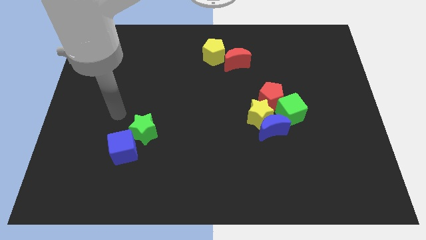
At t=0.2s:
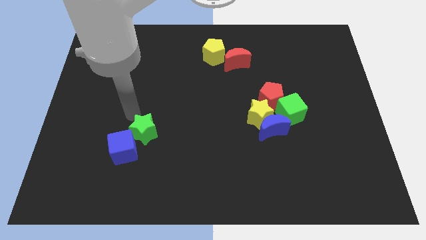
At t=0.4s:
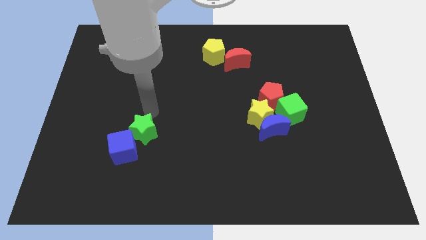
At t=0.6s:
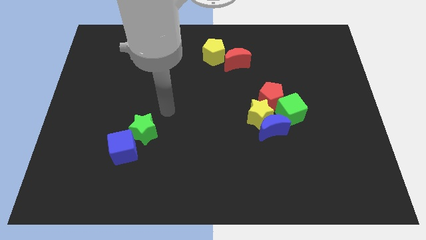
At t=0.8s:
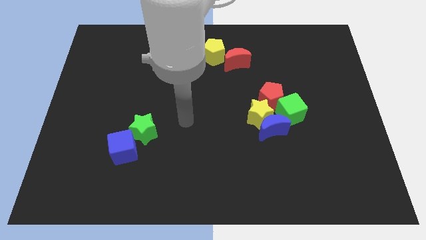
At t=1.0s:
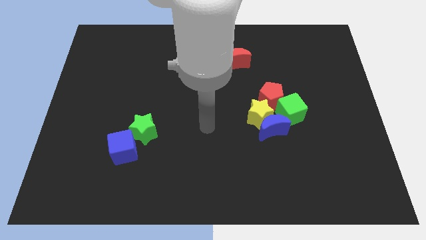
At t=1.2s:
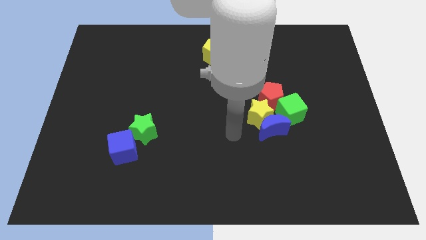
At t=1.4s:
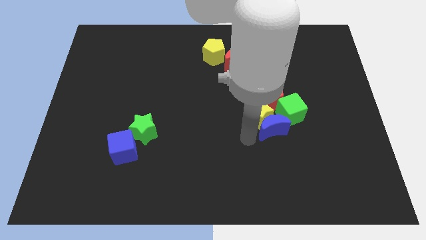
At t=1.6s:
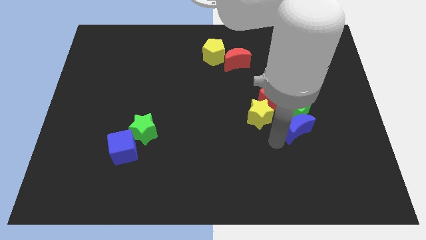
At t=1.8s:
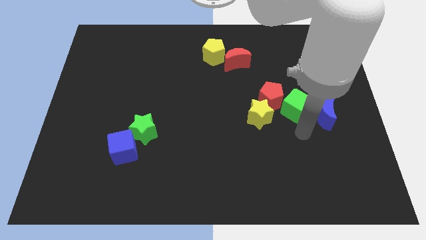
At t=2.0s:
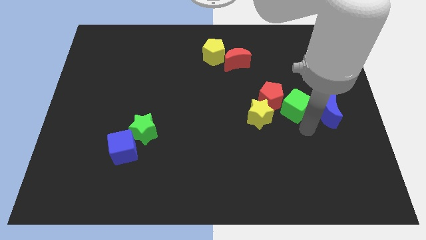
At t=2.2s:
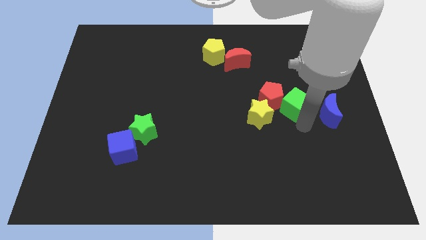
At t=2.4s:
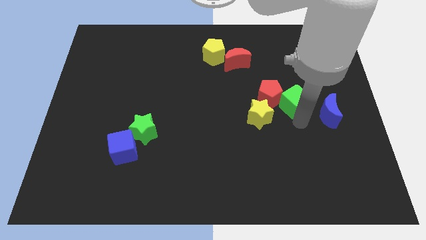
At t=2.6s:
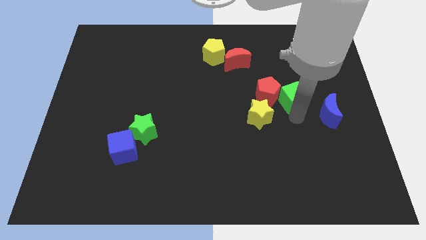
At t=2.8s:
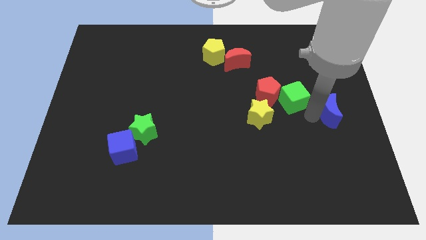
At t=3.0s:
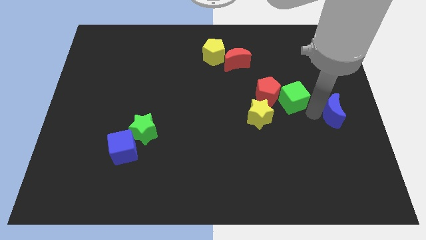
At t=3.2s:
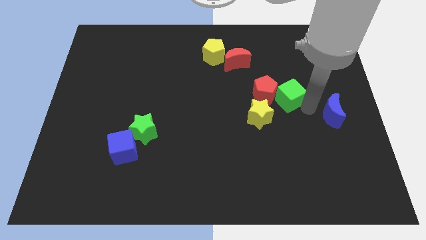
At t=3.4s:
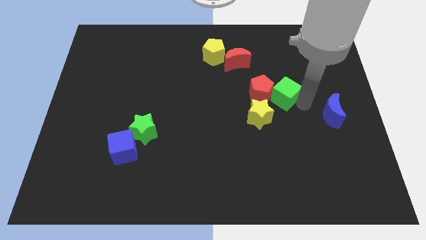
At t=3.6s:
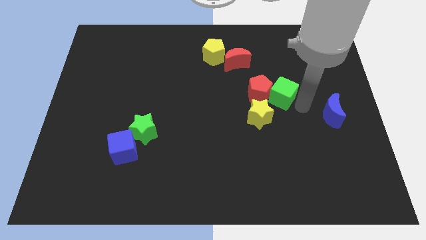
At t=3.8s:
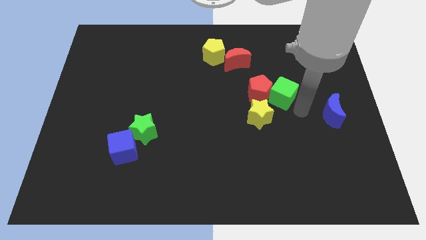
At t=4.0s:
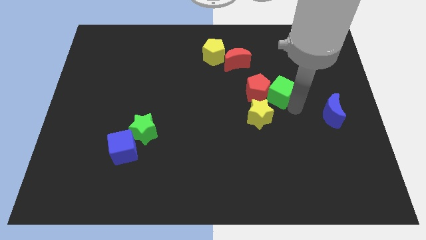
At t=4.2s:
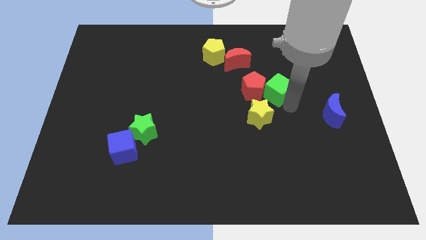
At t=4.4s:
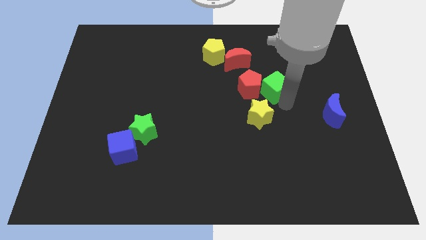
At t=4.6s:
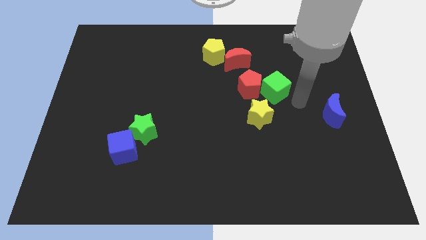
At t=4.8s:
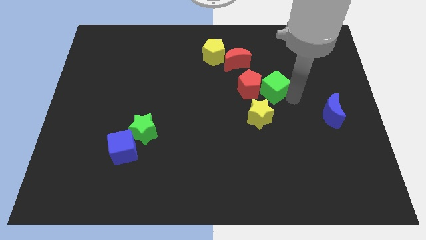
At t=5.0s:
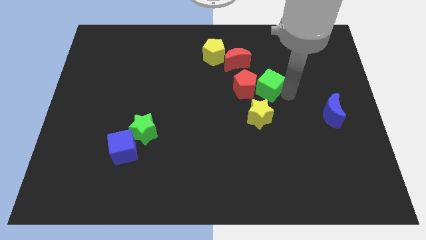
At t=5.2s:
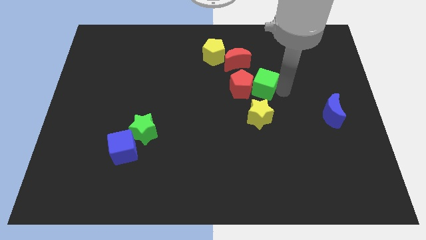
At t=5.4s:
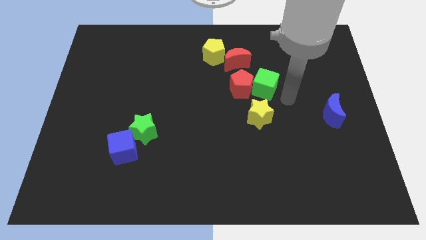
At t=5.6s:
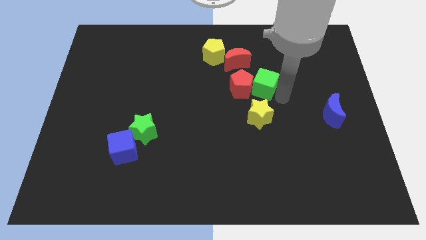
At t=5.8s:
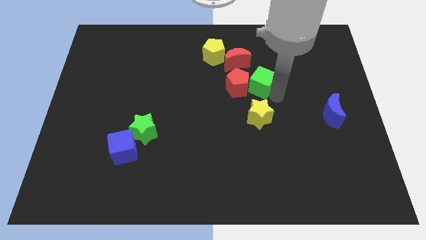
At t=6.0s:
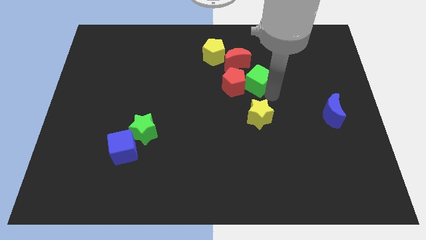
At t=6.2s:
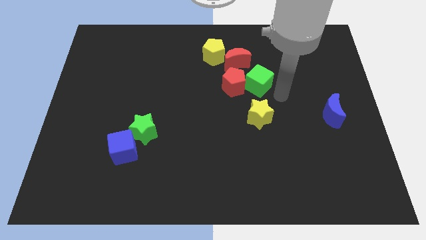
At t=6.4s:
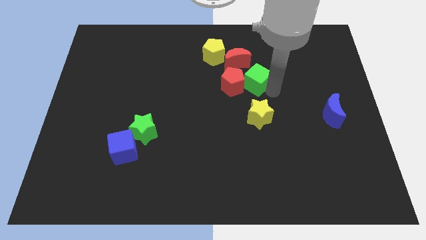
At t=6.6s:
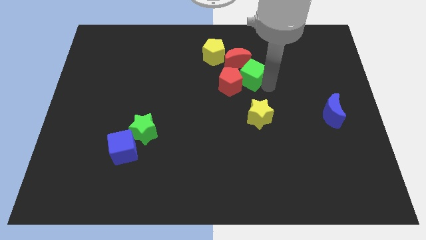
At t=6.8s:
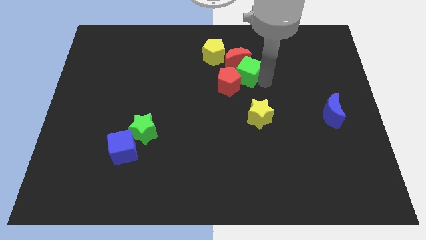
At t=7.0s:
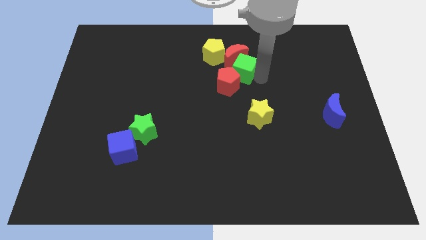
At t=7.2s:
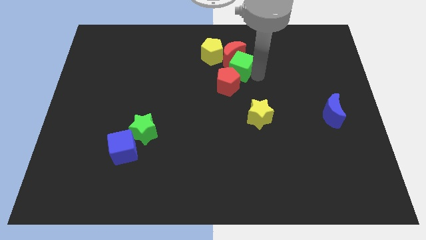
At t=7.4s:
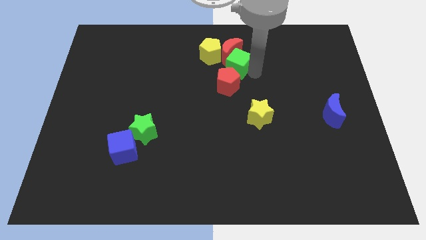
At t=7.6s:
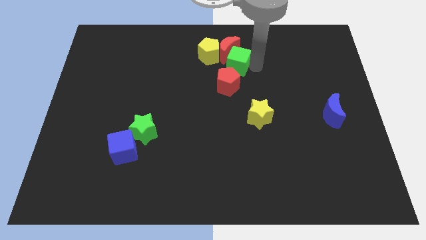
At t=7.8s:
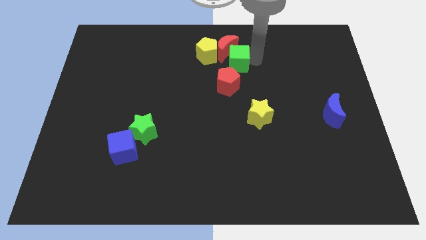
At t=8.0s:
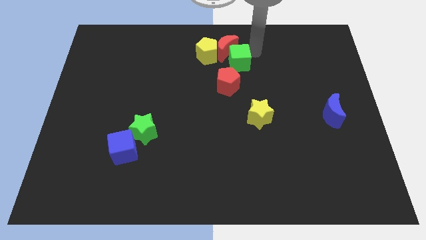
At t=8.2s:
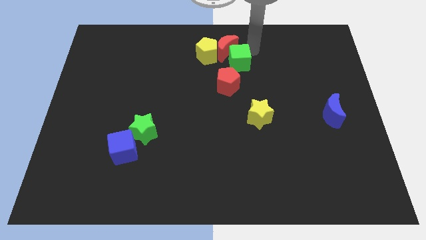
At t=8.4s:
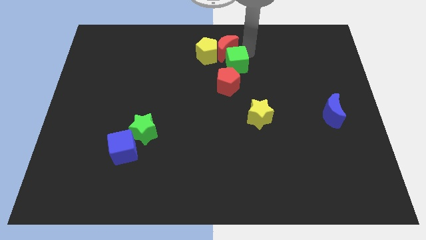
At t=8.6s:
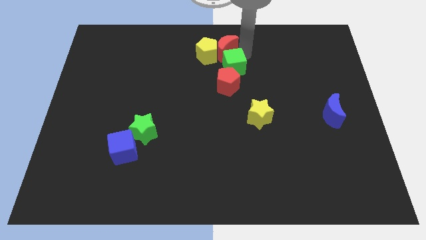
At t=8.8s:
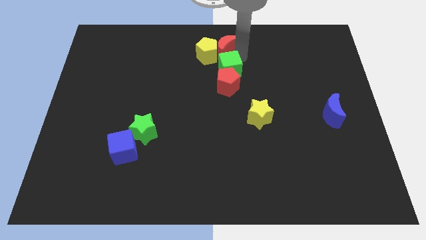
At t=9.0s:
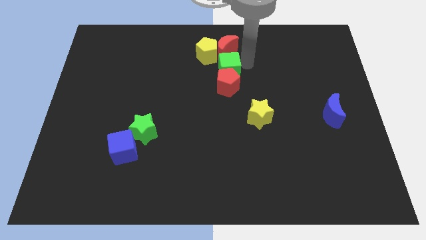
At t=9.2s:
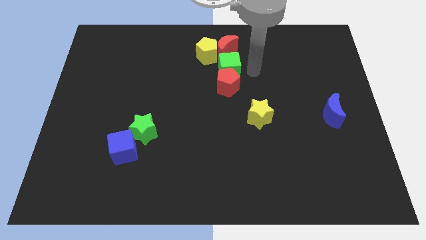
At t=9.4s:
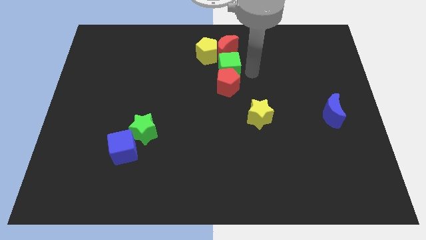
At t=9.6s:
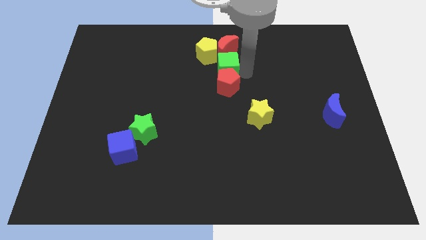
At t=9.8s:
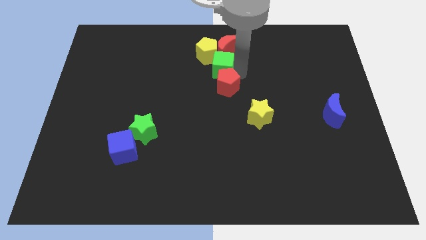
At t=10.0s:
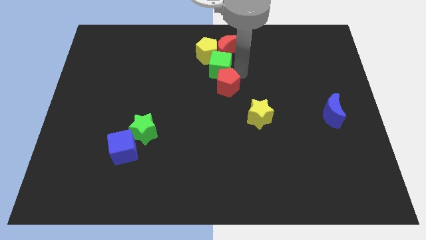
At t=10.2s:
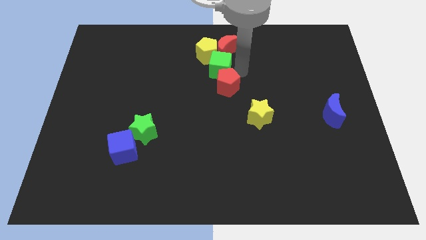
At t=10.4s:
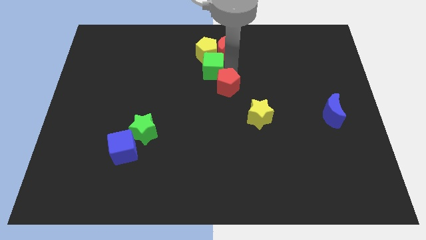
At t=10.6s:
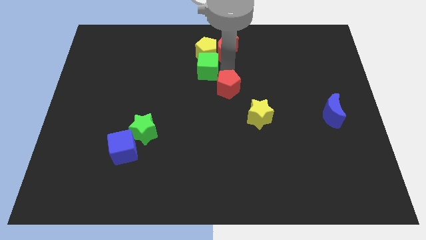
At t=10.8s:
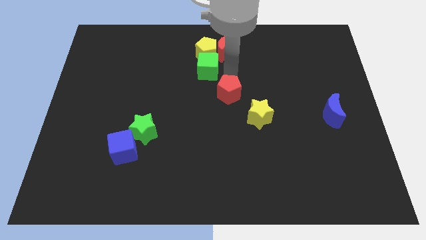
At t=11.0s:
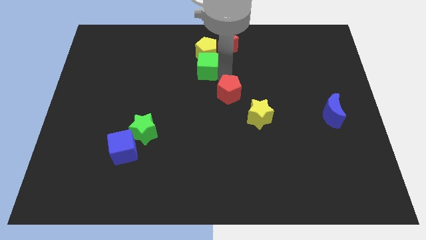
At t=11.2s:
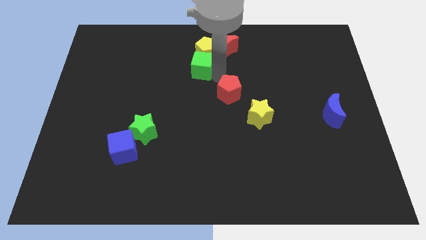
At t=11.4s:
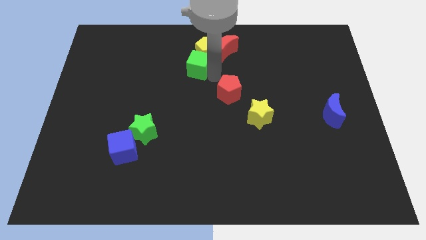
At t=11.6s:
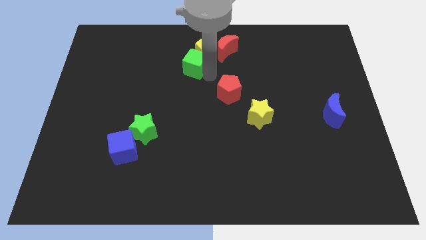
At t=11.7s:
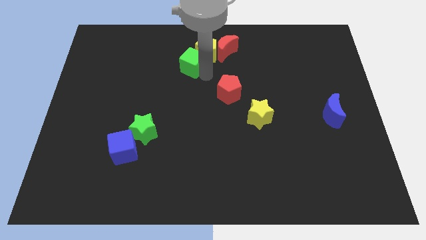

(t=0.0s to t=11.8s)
slide the green cube just left of the yellow pentagon

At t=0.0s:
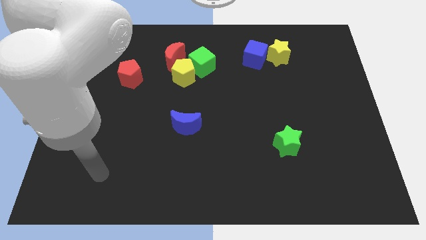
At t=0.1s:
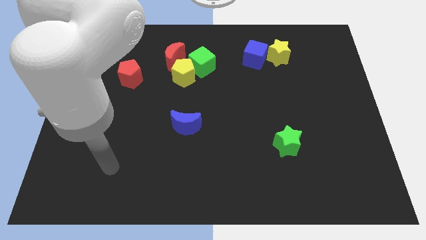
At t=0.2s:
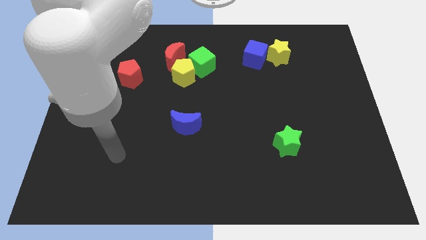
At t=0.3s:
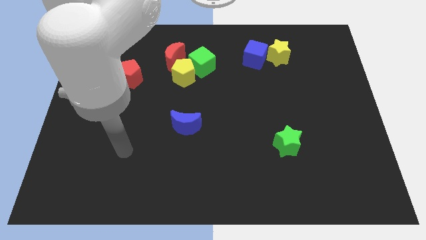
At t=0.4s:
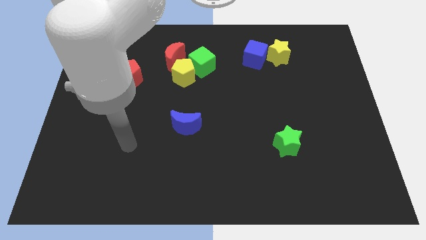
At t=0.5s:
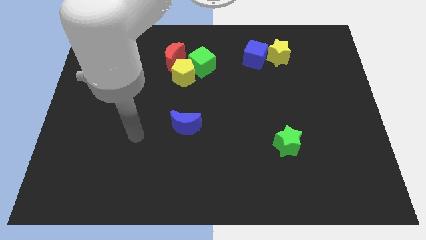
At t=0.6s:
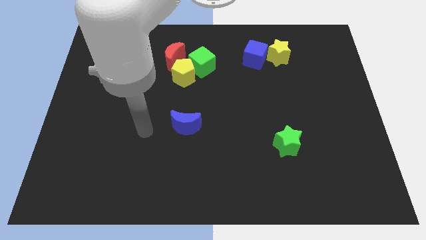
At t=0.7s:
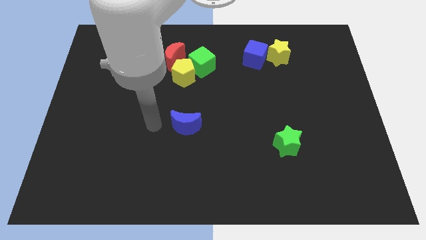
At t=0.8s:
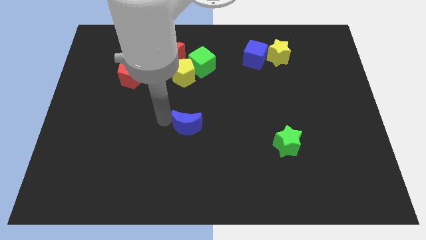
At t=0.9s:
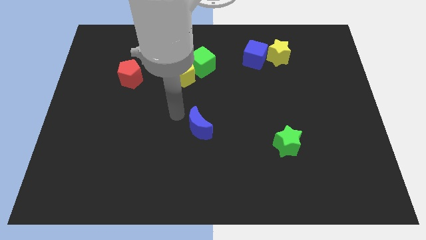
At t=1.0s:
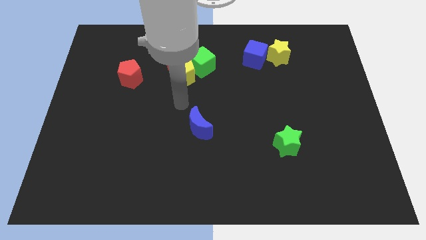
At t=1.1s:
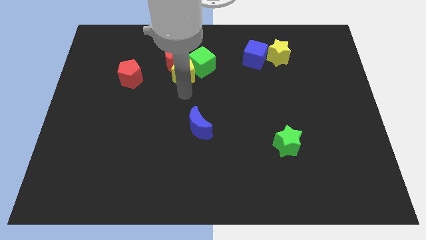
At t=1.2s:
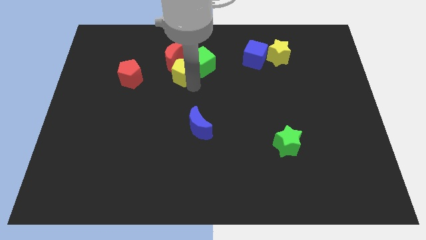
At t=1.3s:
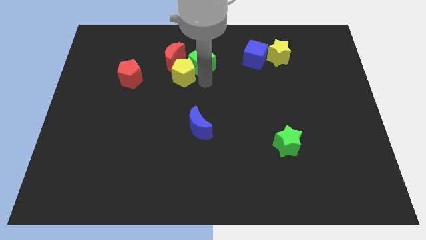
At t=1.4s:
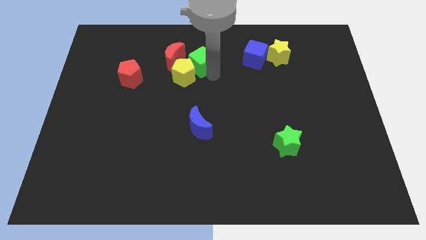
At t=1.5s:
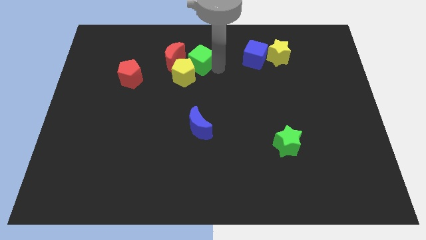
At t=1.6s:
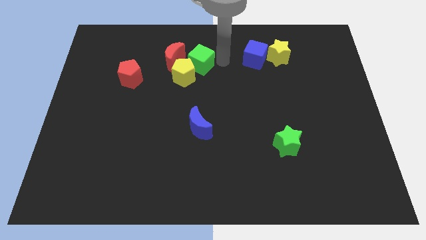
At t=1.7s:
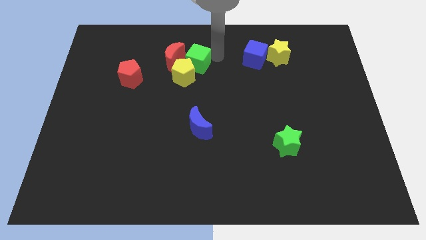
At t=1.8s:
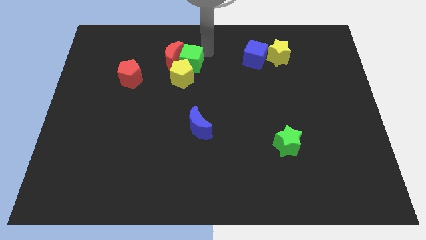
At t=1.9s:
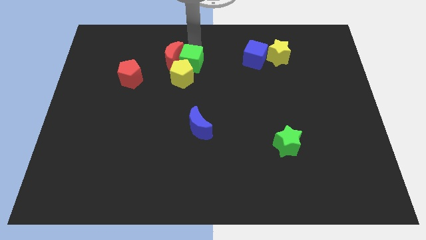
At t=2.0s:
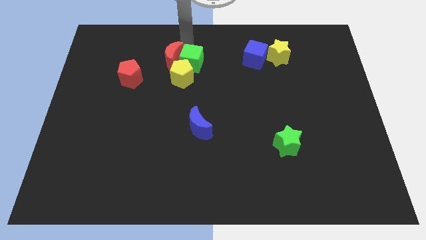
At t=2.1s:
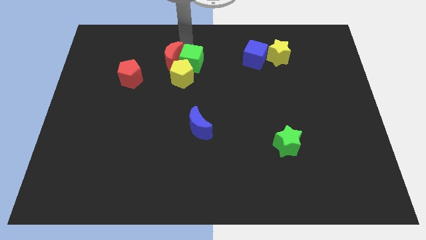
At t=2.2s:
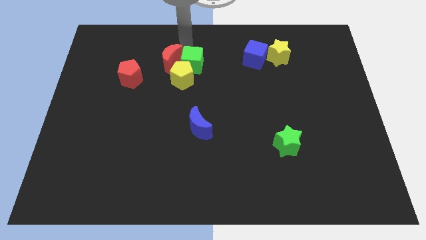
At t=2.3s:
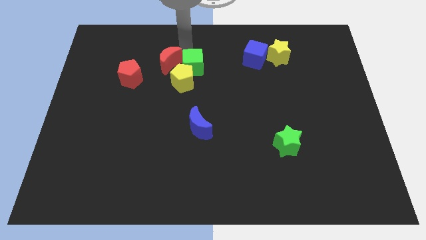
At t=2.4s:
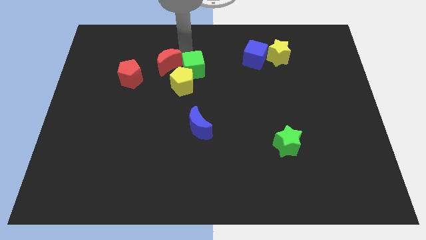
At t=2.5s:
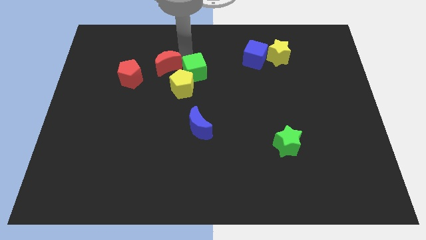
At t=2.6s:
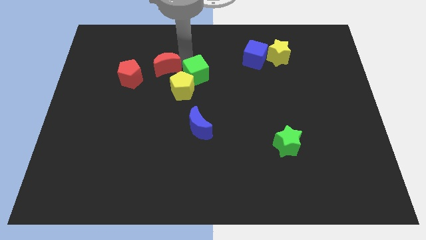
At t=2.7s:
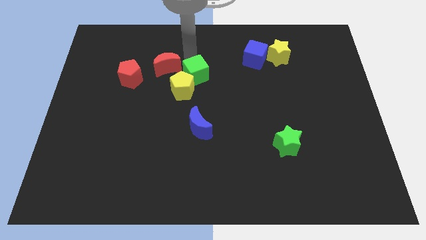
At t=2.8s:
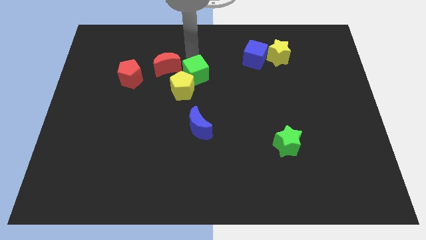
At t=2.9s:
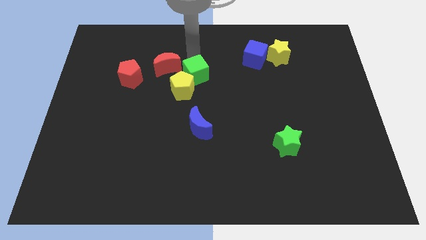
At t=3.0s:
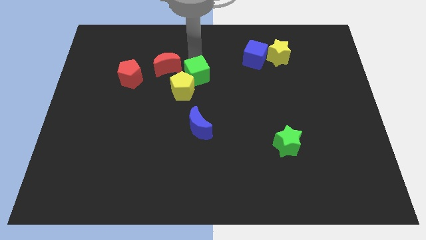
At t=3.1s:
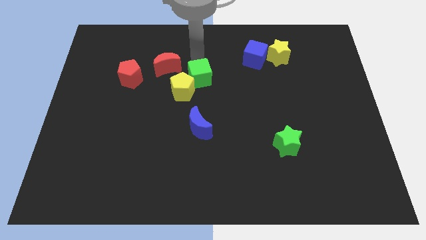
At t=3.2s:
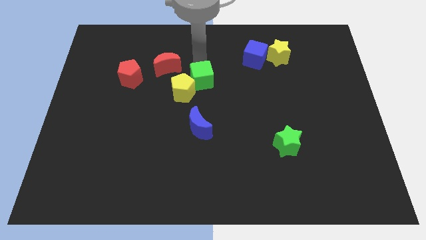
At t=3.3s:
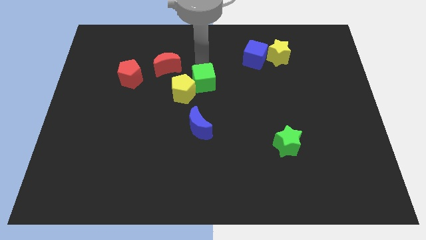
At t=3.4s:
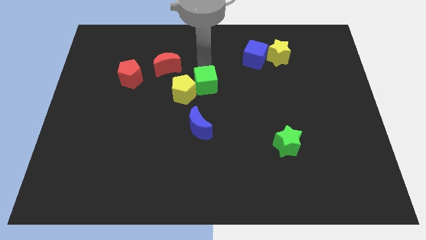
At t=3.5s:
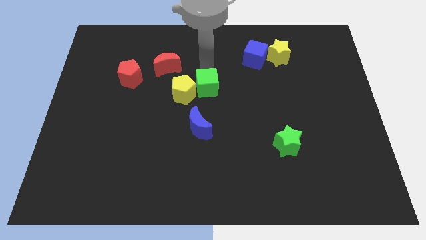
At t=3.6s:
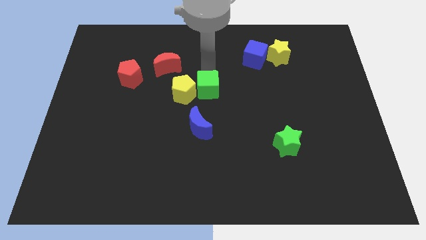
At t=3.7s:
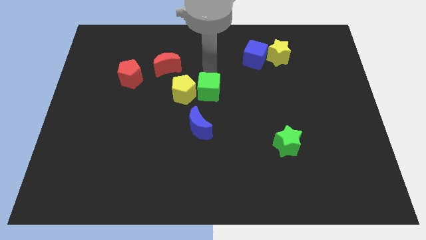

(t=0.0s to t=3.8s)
move the green cube diagonally down and to the right of the yellow pentagon
